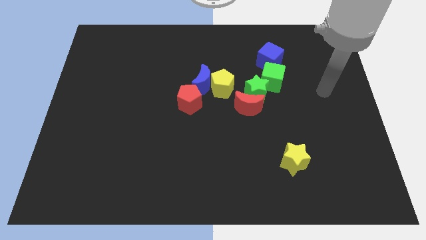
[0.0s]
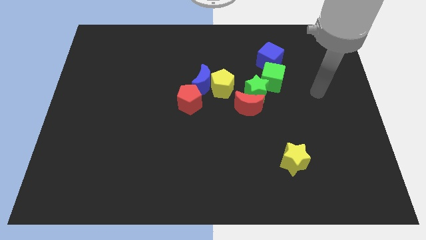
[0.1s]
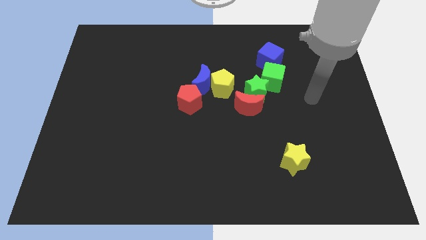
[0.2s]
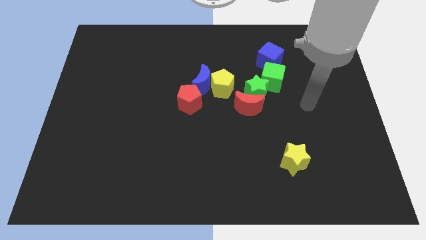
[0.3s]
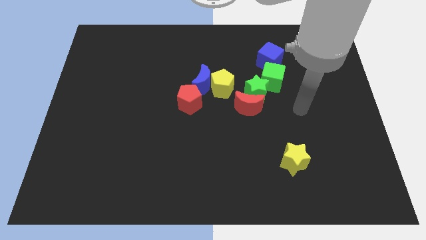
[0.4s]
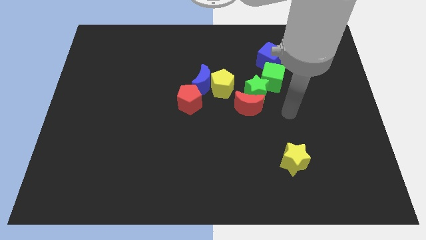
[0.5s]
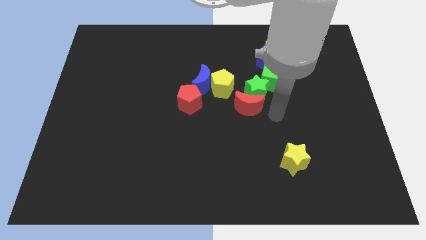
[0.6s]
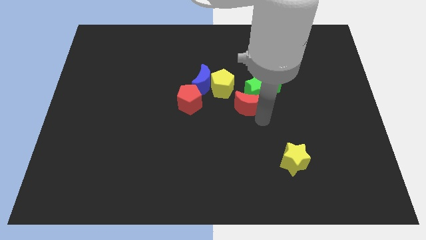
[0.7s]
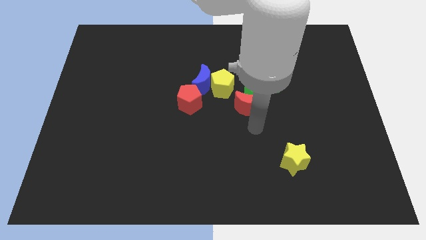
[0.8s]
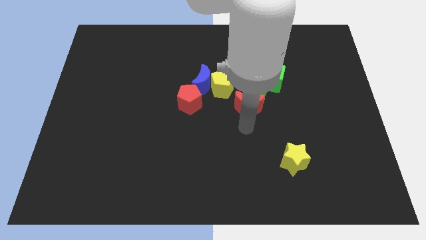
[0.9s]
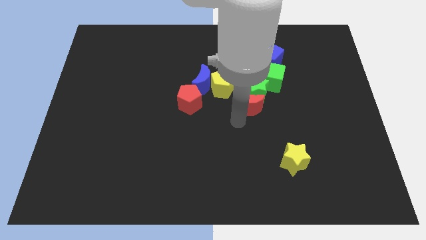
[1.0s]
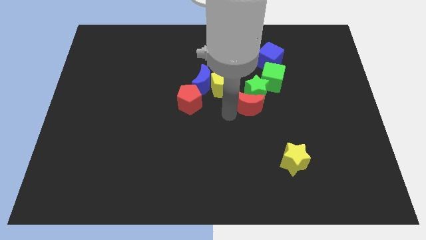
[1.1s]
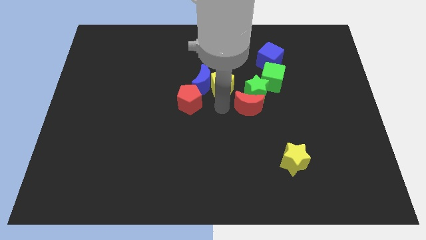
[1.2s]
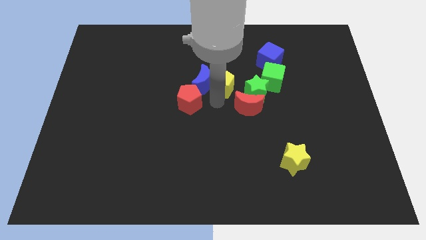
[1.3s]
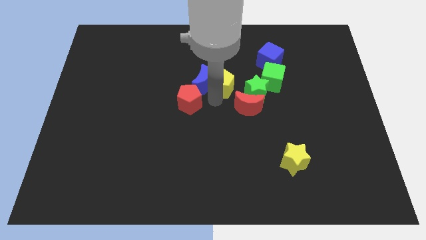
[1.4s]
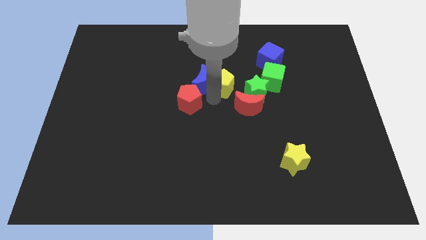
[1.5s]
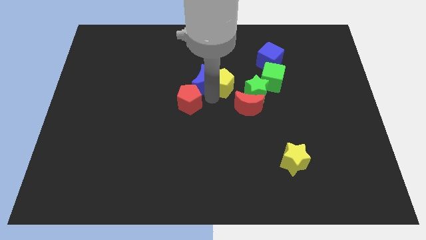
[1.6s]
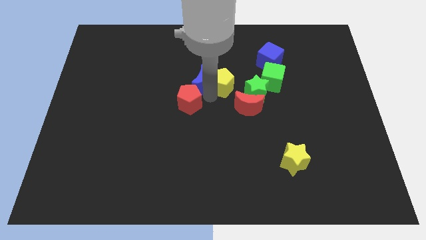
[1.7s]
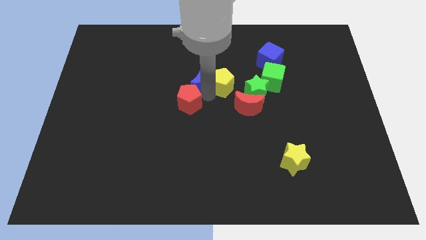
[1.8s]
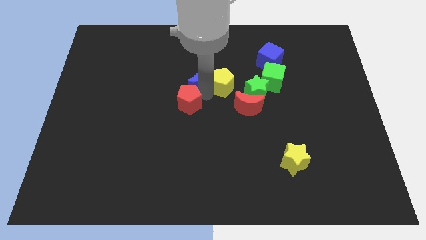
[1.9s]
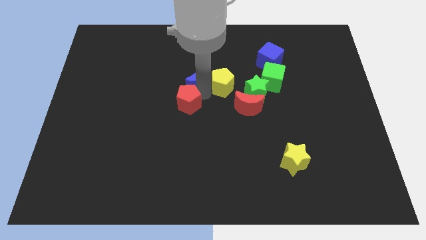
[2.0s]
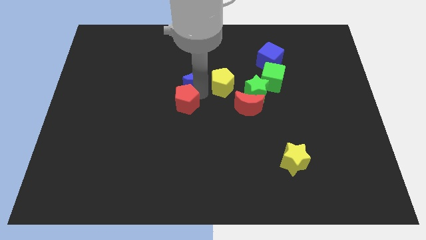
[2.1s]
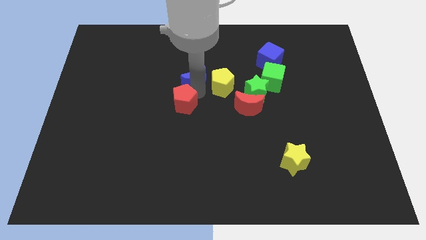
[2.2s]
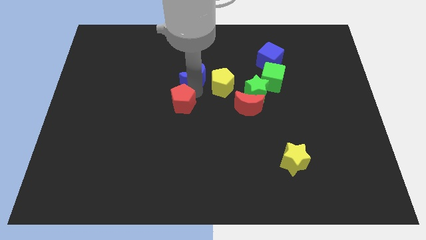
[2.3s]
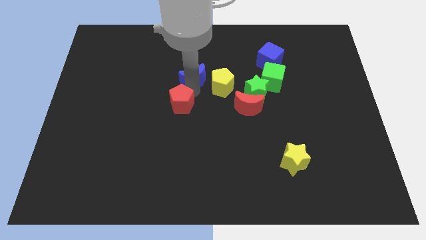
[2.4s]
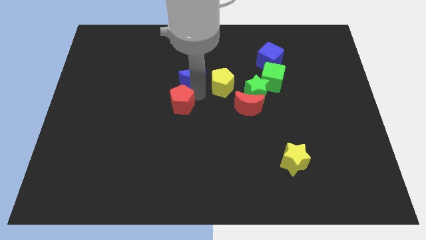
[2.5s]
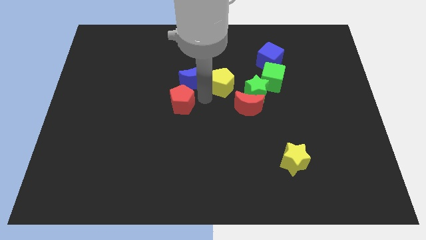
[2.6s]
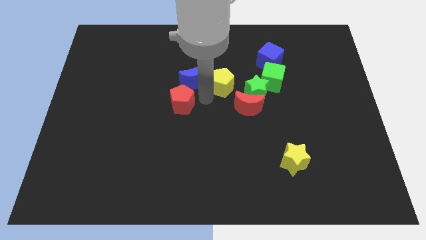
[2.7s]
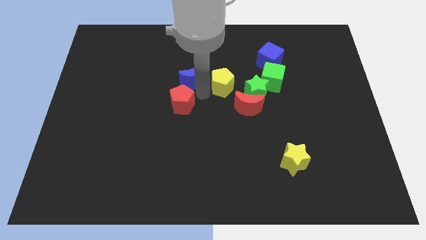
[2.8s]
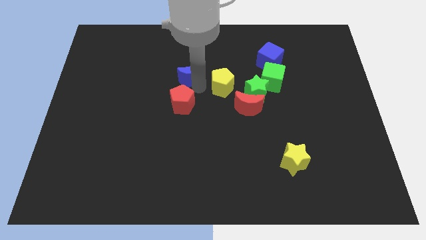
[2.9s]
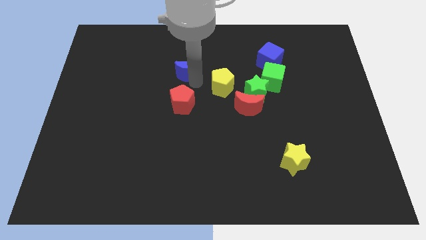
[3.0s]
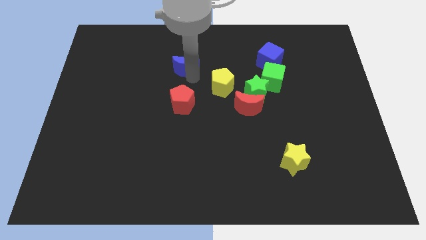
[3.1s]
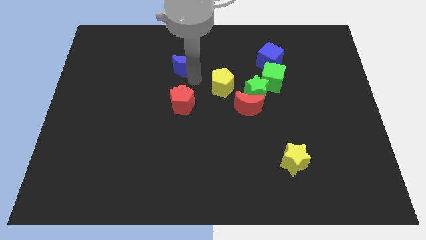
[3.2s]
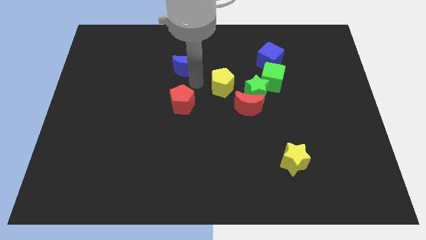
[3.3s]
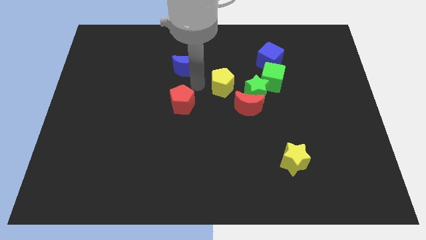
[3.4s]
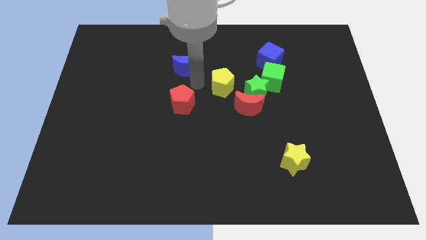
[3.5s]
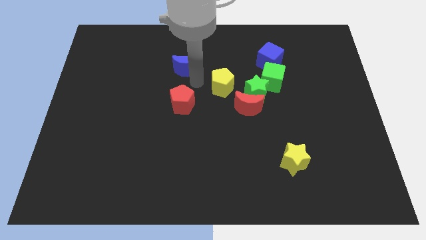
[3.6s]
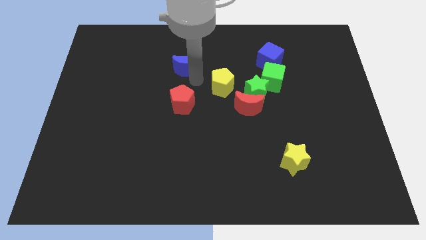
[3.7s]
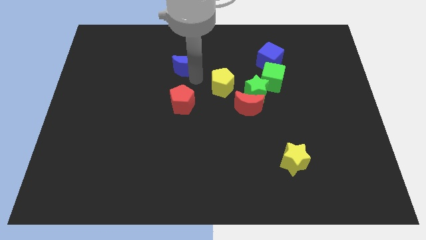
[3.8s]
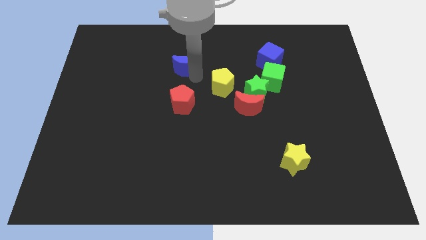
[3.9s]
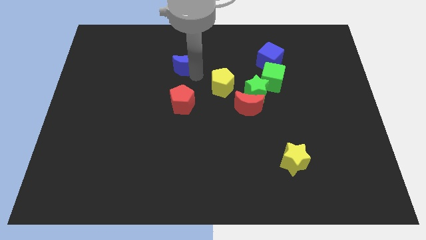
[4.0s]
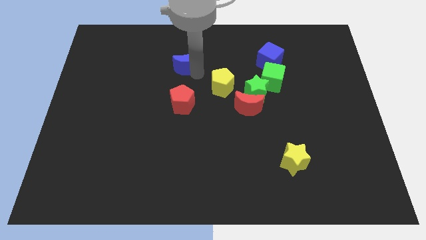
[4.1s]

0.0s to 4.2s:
move the blue moon away from the yellow pentagon and red pentagon

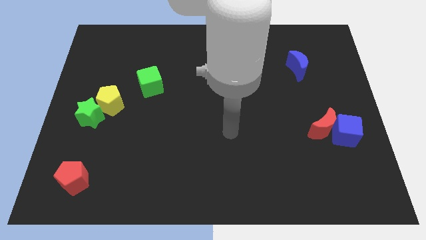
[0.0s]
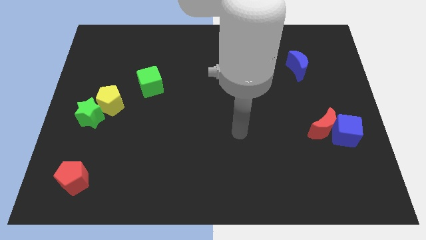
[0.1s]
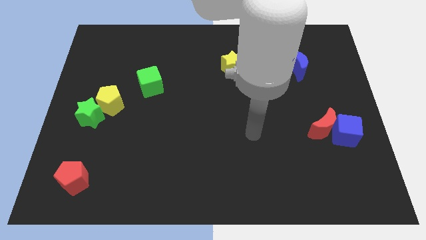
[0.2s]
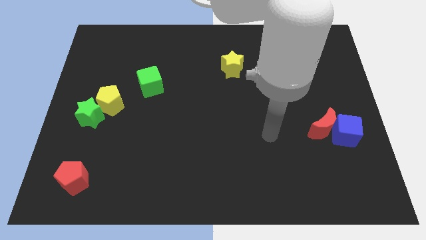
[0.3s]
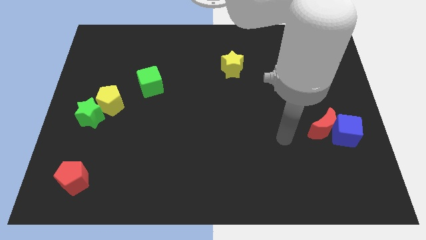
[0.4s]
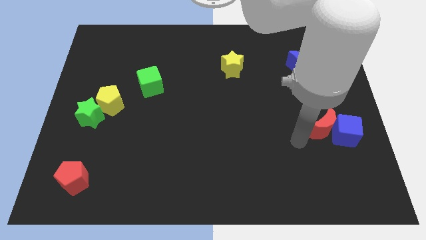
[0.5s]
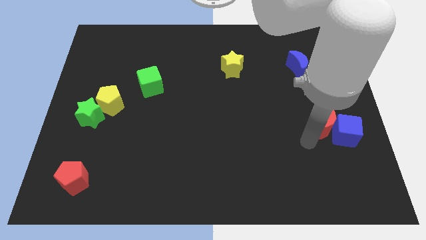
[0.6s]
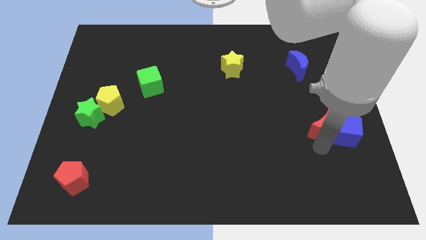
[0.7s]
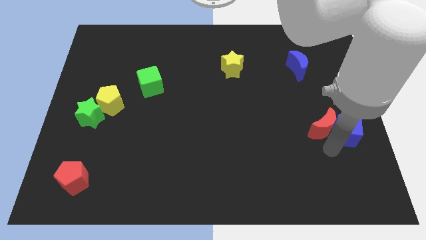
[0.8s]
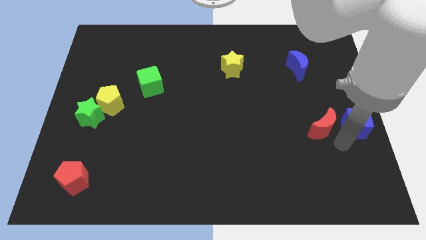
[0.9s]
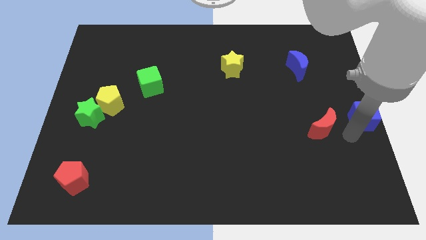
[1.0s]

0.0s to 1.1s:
separate the red moon from the blue cube

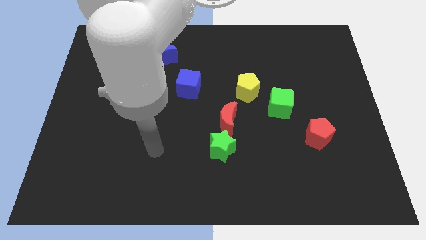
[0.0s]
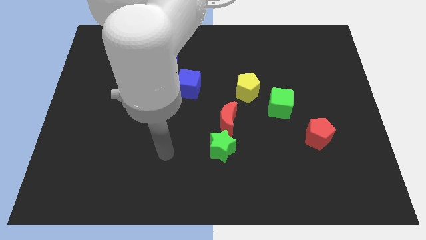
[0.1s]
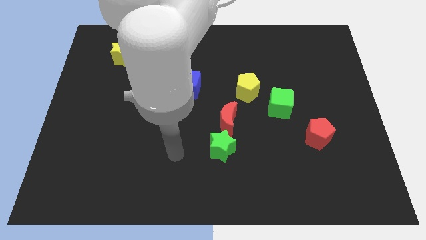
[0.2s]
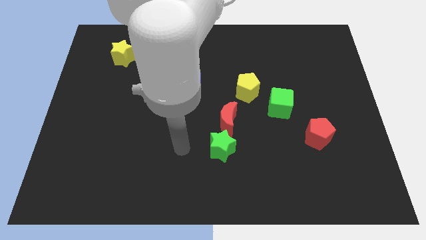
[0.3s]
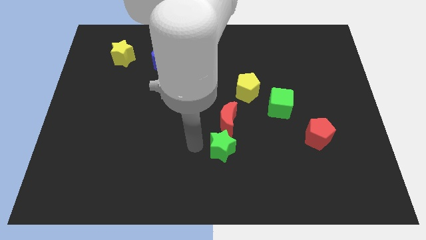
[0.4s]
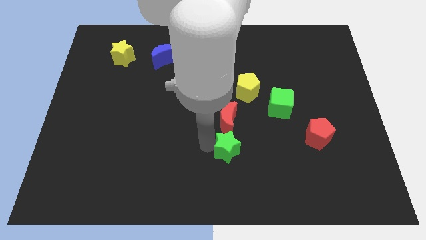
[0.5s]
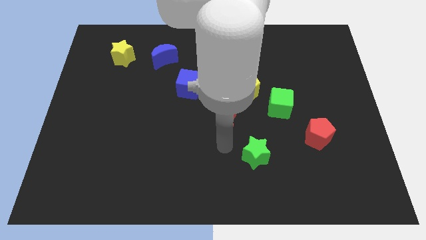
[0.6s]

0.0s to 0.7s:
move the red moon away from the green star

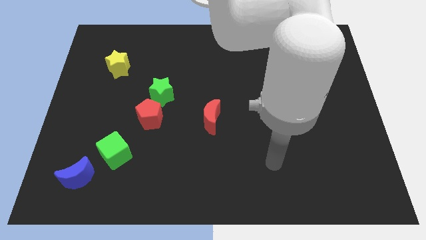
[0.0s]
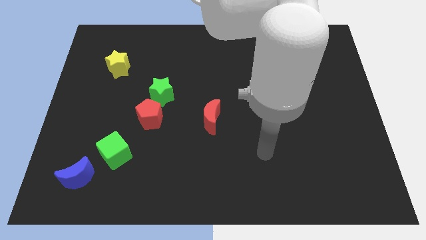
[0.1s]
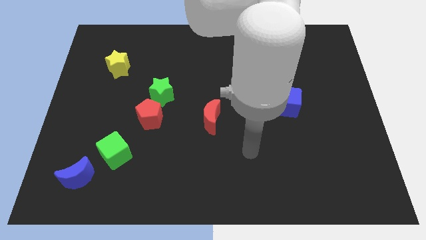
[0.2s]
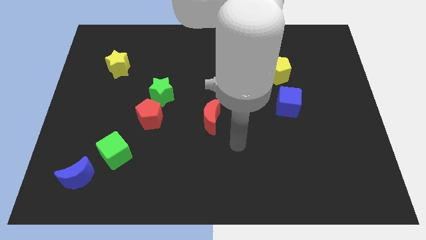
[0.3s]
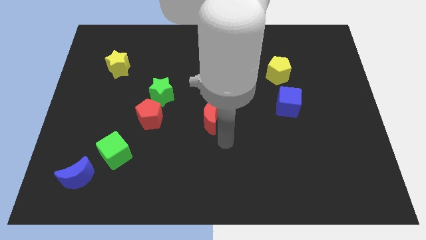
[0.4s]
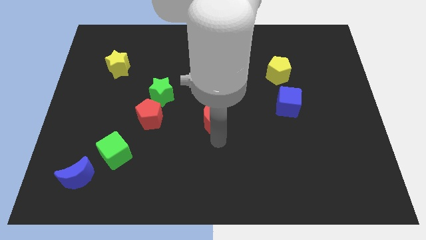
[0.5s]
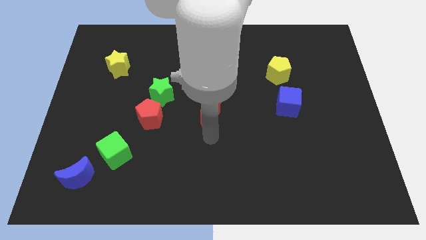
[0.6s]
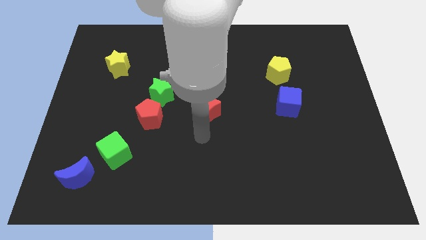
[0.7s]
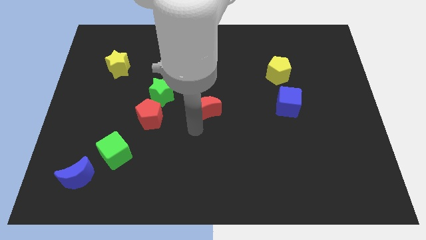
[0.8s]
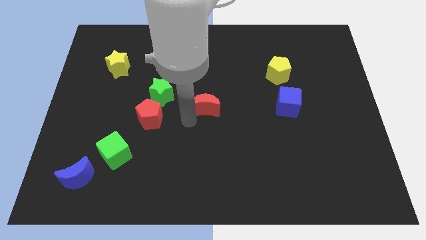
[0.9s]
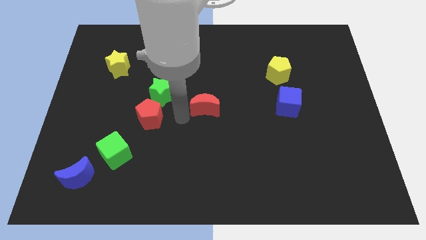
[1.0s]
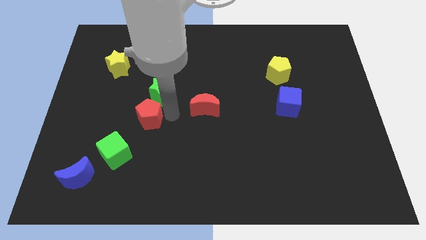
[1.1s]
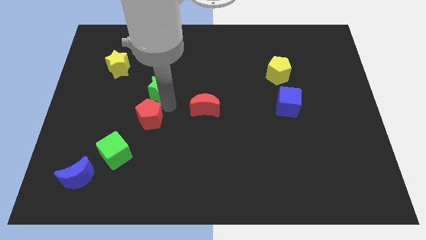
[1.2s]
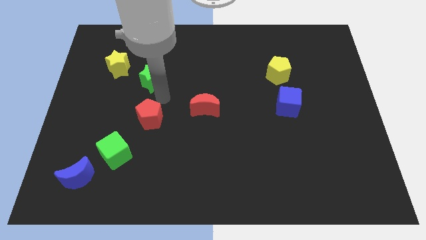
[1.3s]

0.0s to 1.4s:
move the red pentagon away from the green star

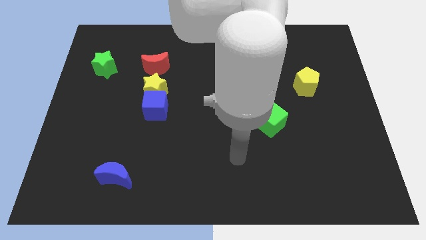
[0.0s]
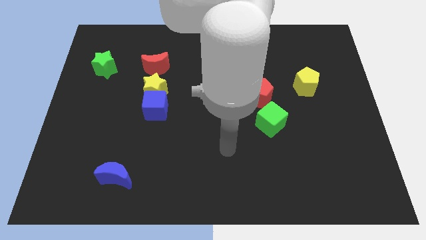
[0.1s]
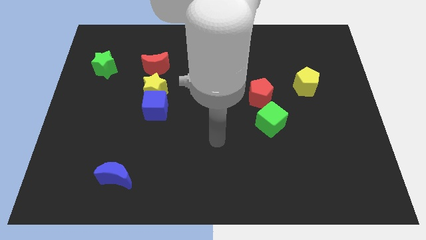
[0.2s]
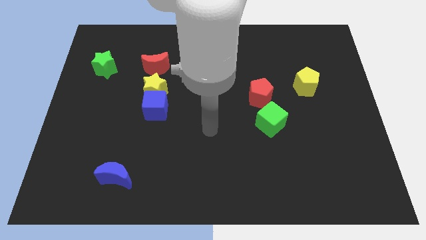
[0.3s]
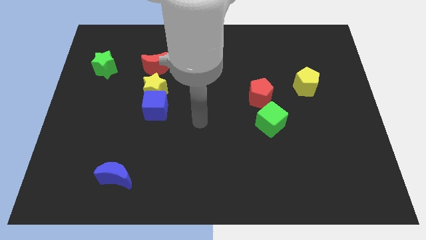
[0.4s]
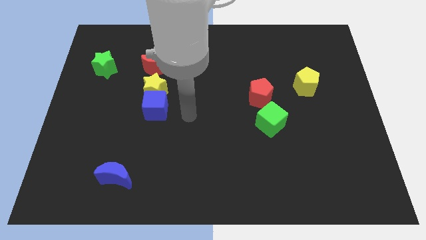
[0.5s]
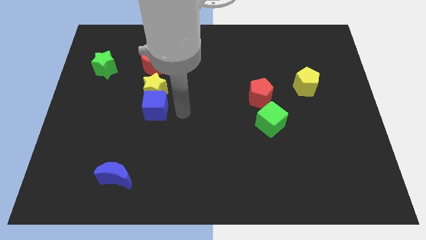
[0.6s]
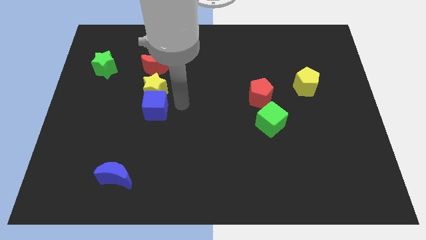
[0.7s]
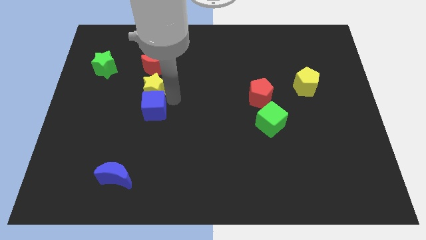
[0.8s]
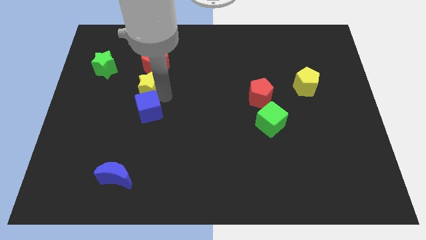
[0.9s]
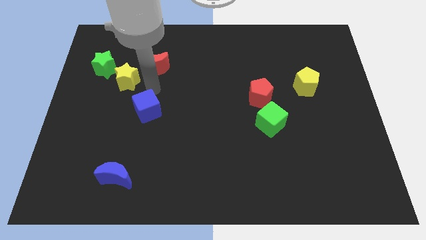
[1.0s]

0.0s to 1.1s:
pull the blue cube apart from the yellow star

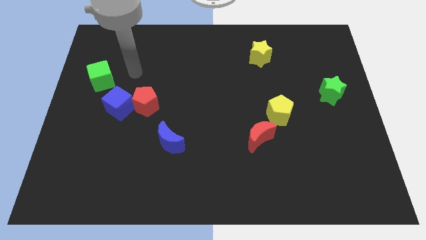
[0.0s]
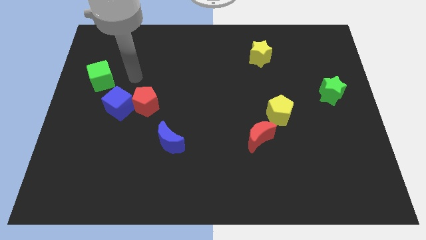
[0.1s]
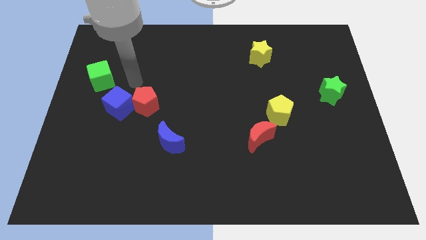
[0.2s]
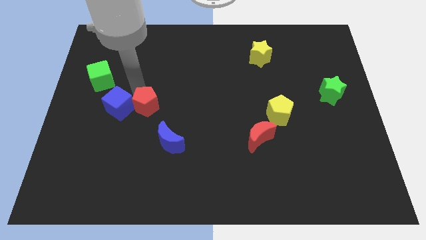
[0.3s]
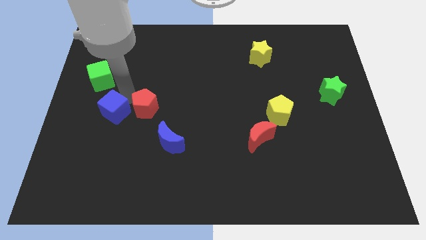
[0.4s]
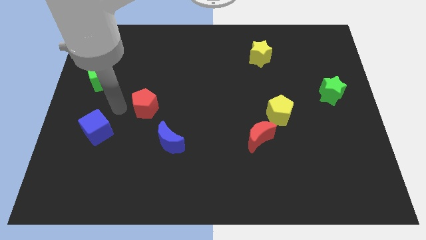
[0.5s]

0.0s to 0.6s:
pull the red pentagon apart from the blue cube

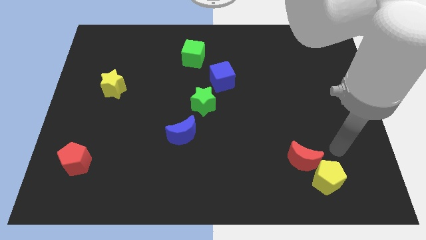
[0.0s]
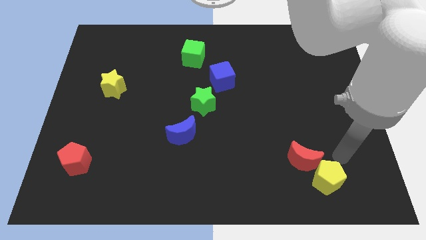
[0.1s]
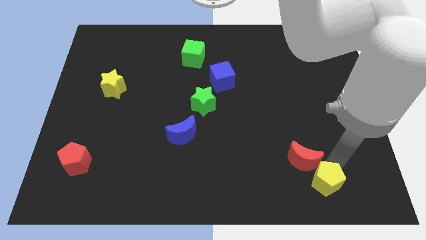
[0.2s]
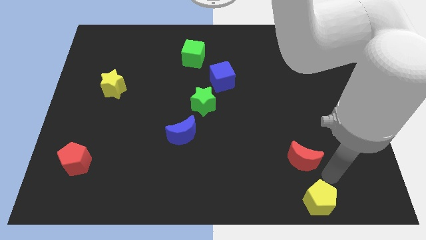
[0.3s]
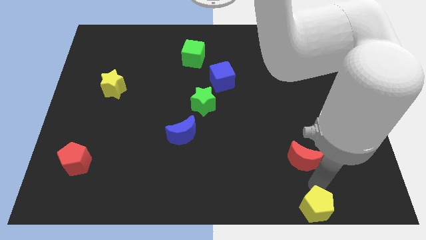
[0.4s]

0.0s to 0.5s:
separate the red moon from the yellow pentagon
